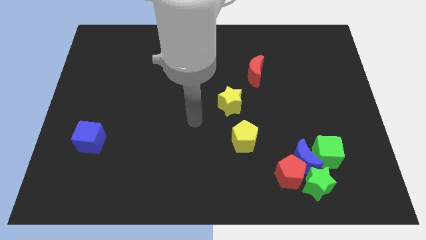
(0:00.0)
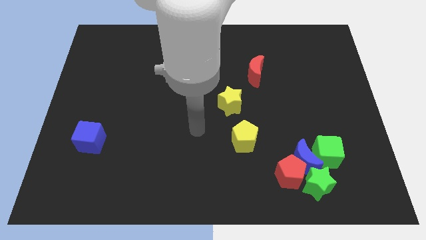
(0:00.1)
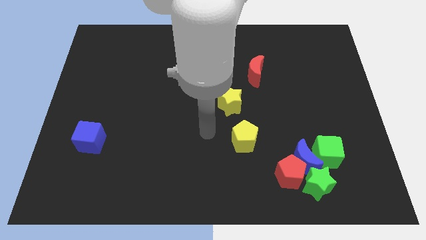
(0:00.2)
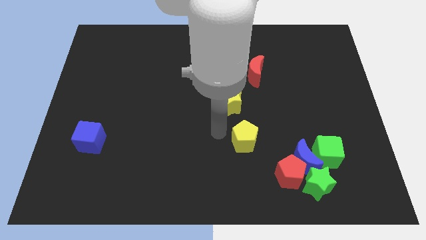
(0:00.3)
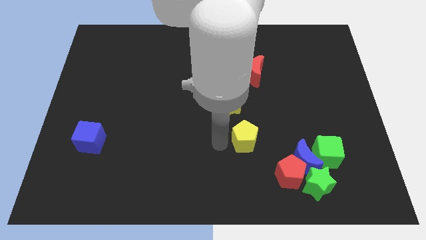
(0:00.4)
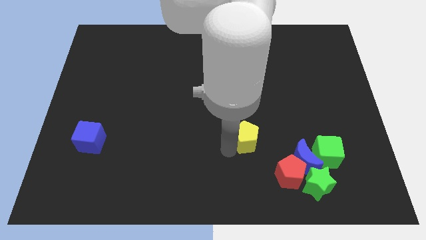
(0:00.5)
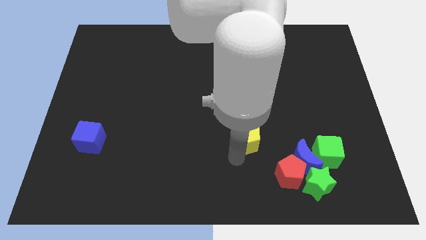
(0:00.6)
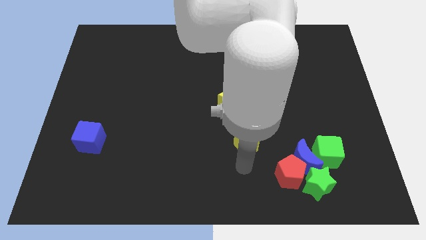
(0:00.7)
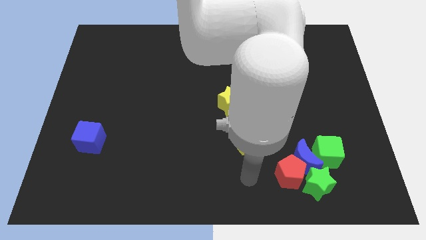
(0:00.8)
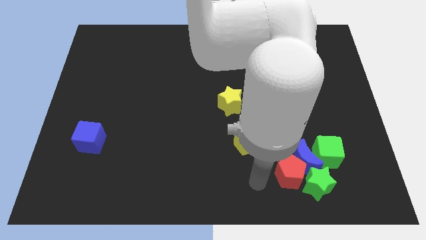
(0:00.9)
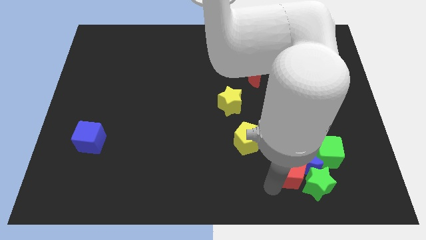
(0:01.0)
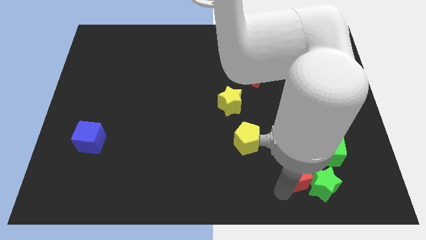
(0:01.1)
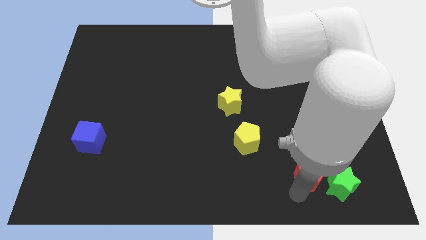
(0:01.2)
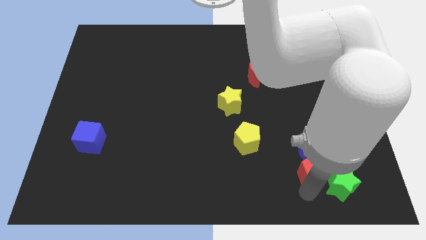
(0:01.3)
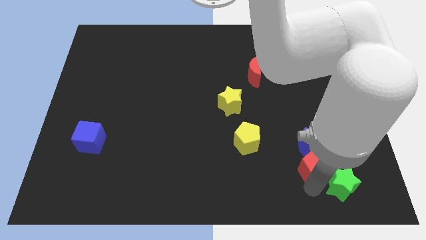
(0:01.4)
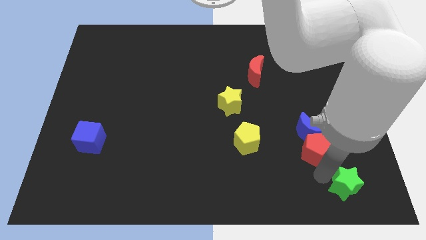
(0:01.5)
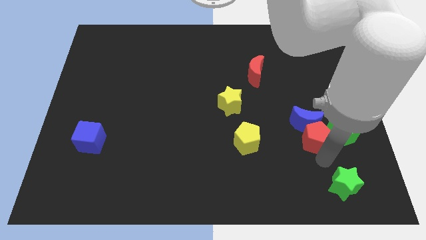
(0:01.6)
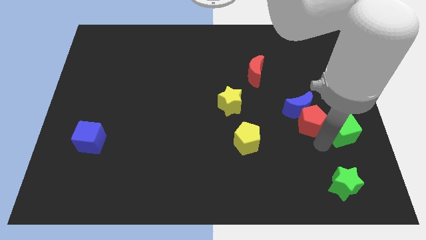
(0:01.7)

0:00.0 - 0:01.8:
pull the blue moon apart from the red pentagon, green cube, and green star

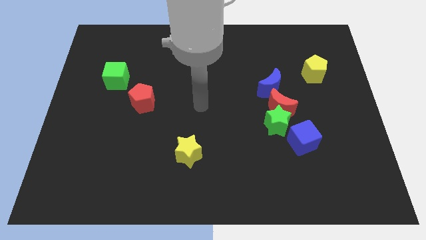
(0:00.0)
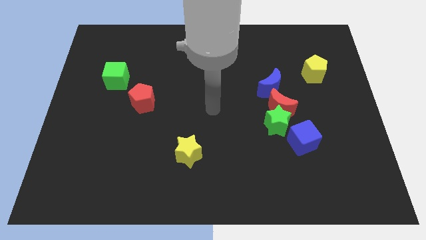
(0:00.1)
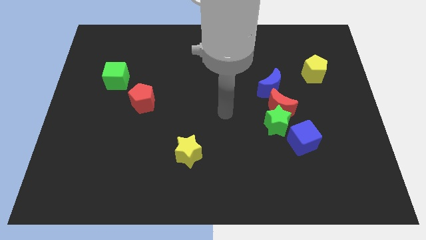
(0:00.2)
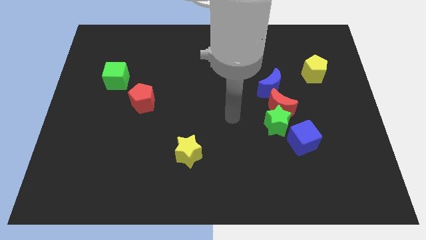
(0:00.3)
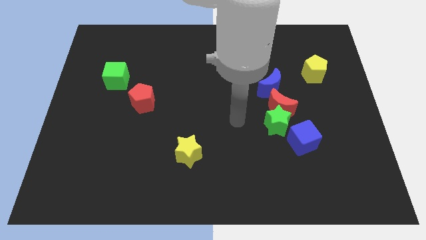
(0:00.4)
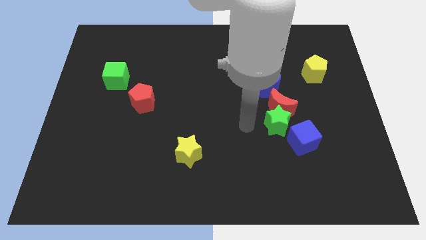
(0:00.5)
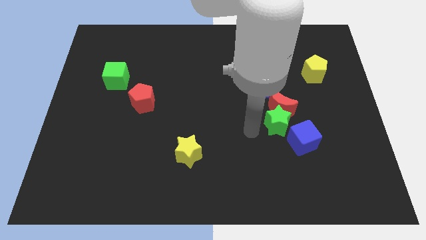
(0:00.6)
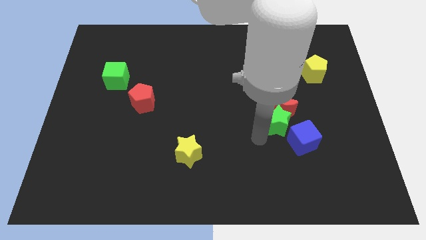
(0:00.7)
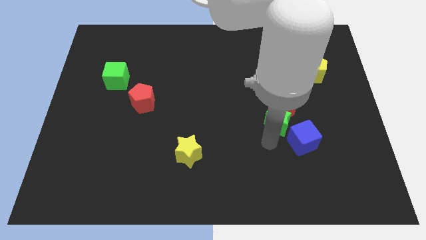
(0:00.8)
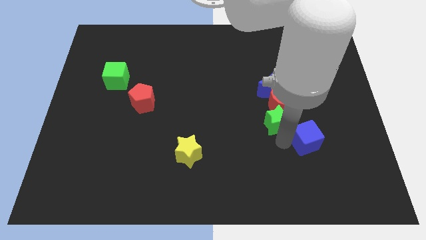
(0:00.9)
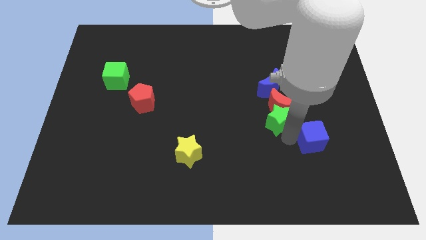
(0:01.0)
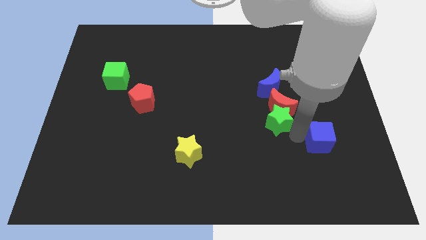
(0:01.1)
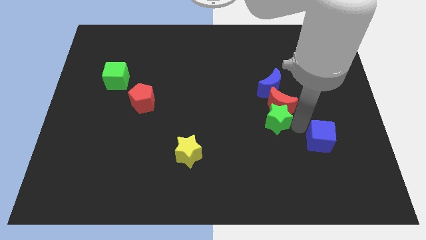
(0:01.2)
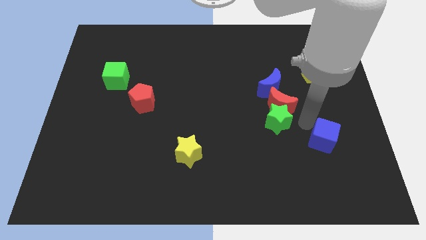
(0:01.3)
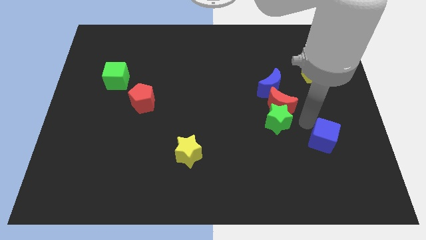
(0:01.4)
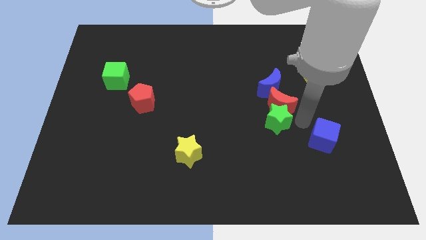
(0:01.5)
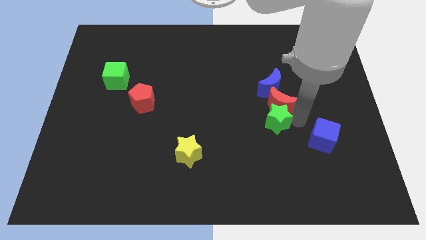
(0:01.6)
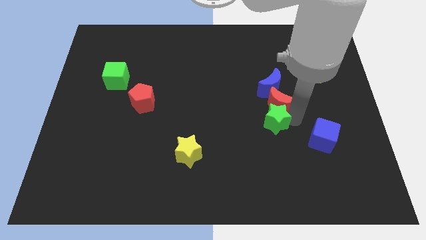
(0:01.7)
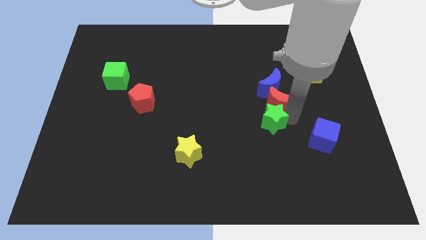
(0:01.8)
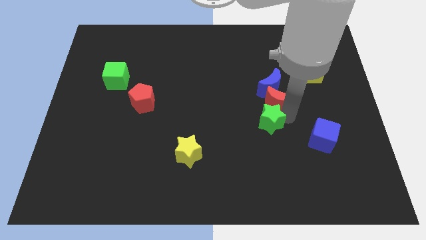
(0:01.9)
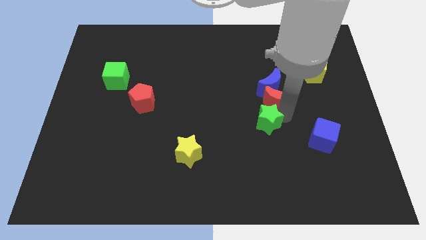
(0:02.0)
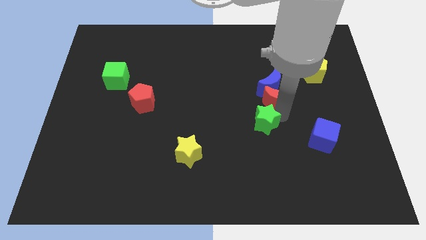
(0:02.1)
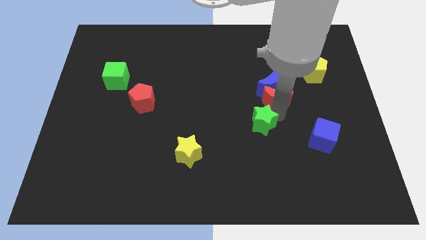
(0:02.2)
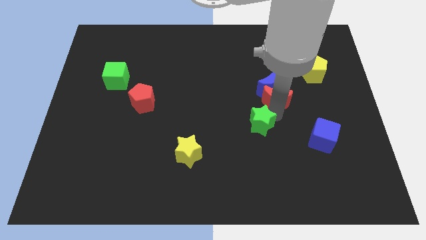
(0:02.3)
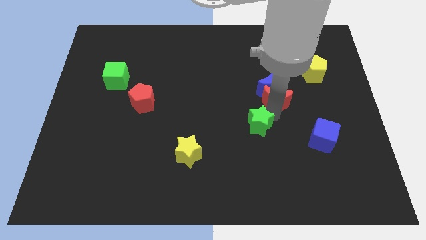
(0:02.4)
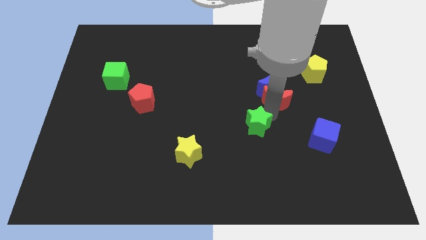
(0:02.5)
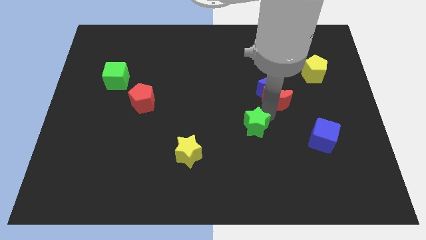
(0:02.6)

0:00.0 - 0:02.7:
pull the green star apart from the red moon and blue cube

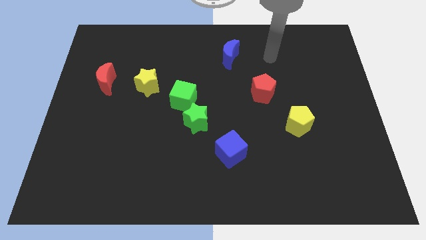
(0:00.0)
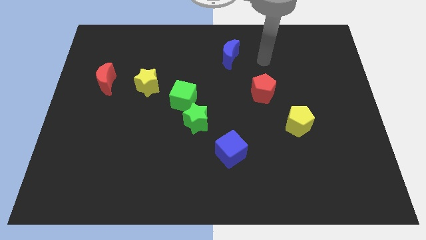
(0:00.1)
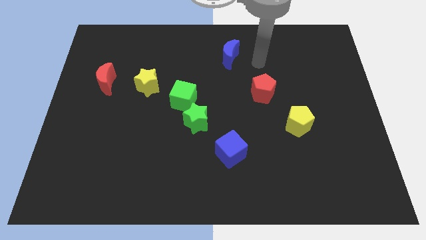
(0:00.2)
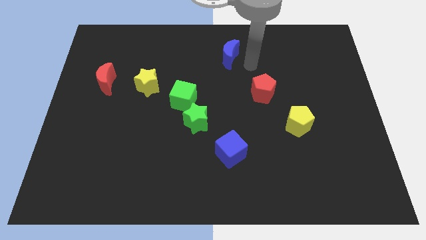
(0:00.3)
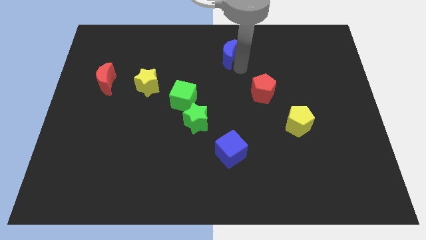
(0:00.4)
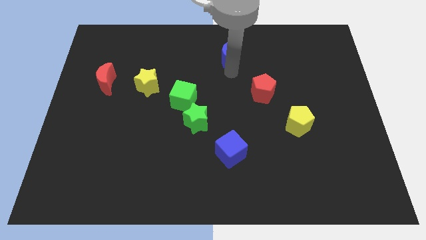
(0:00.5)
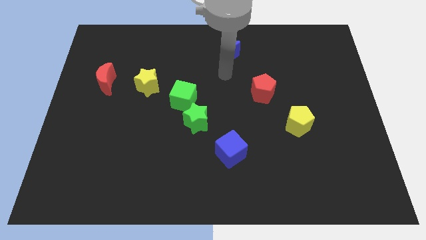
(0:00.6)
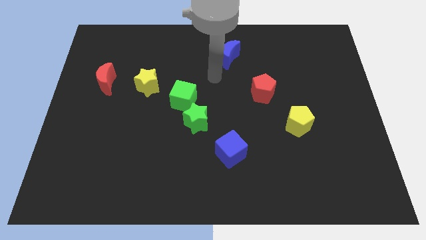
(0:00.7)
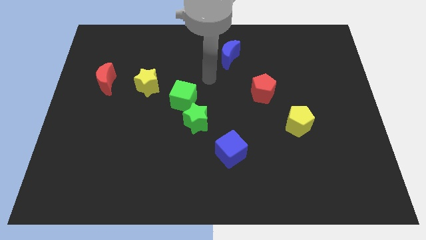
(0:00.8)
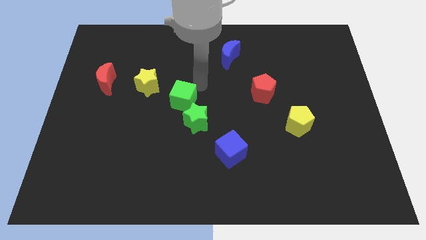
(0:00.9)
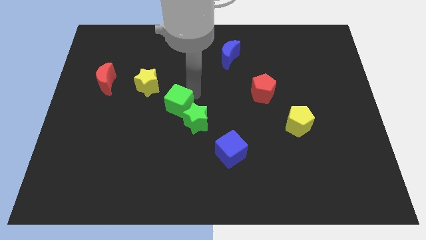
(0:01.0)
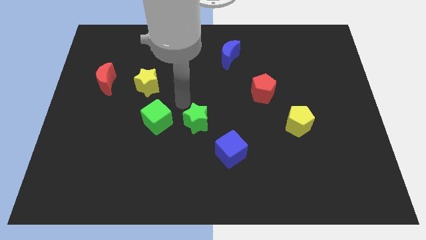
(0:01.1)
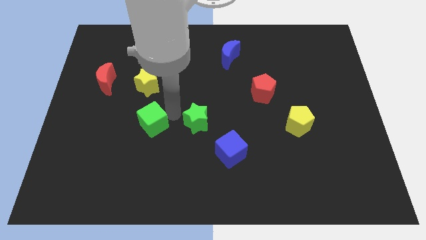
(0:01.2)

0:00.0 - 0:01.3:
separate the green star from the green cube

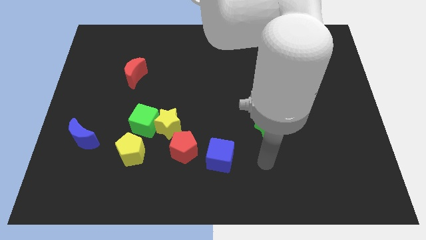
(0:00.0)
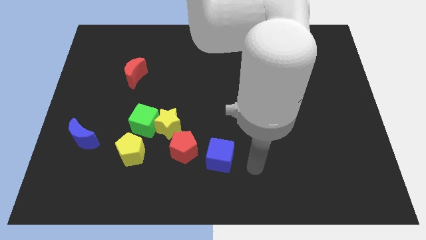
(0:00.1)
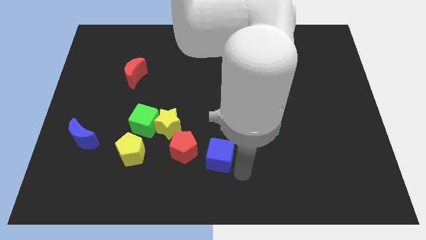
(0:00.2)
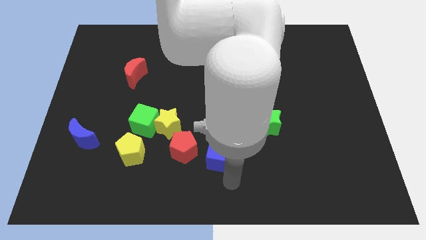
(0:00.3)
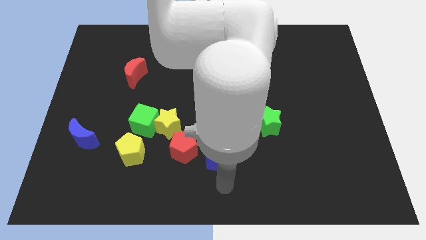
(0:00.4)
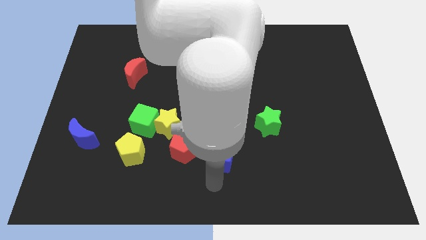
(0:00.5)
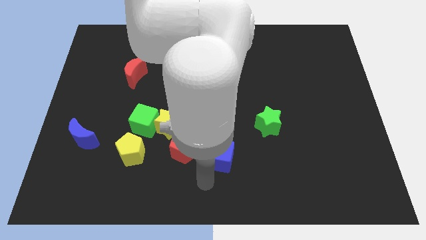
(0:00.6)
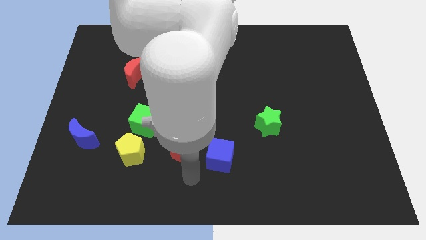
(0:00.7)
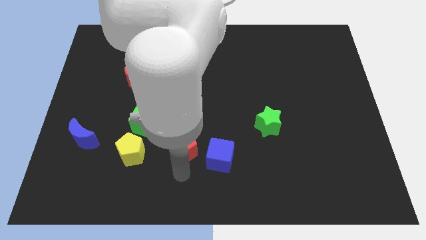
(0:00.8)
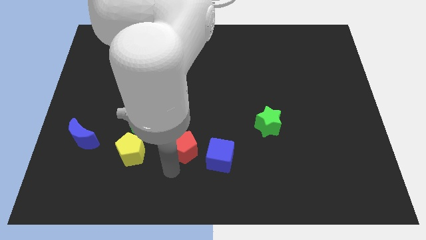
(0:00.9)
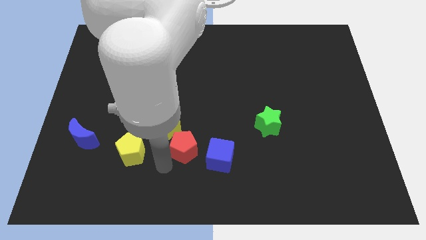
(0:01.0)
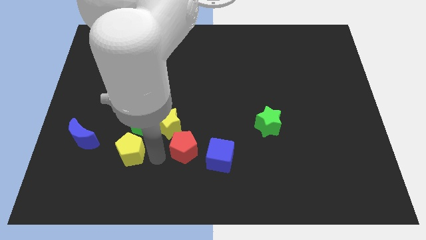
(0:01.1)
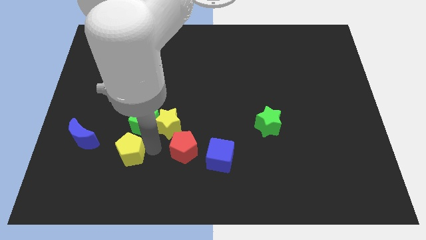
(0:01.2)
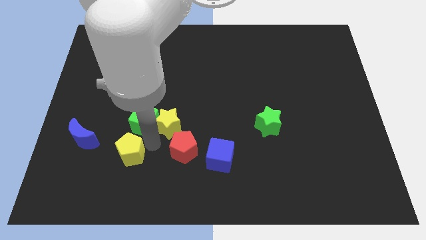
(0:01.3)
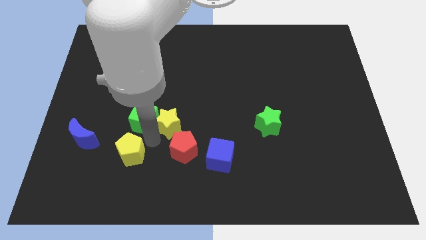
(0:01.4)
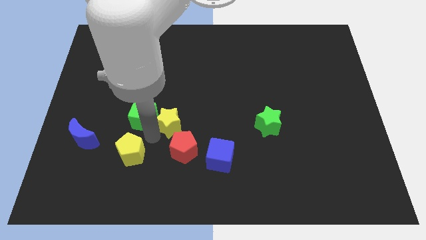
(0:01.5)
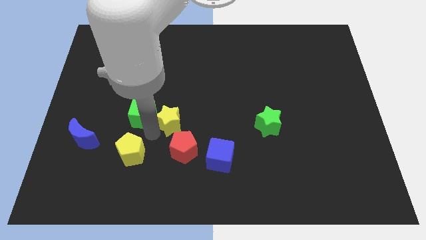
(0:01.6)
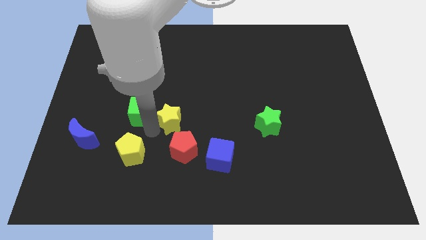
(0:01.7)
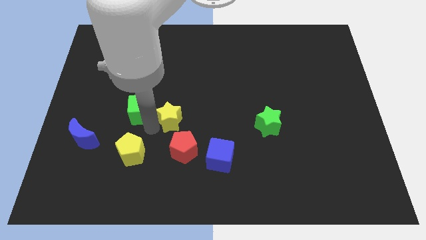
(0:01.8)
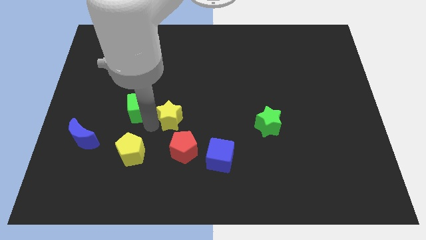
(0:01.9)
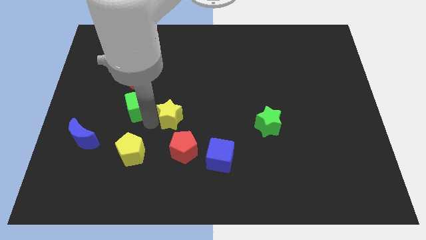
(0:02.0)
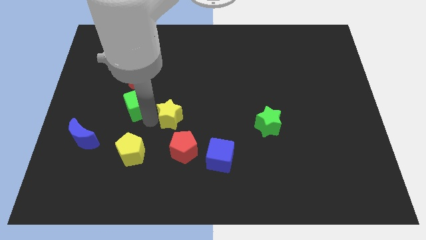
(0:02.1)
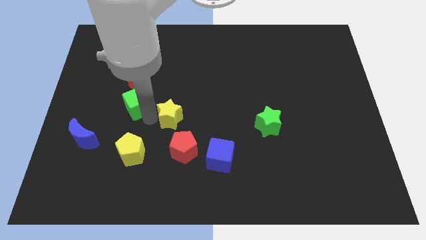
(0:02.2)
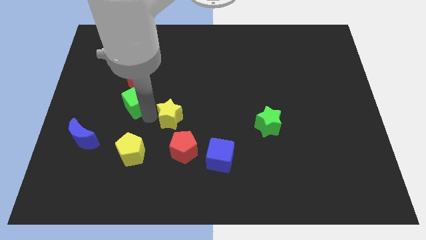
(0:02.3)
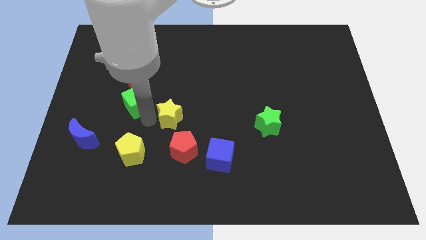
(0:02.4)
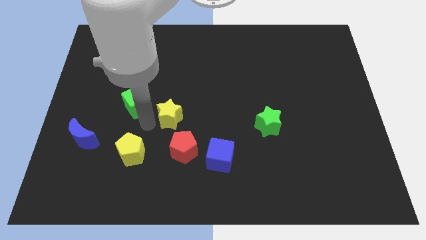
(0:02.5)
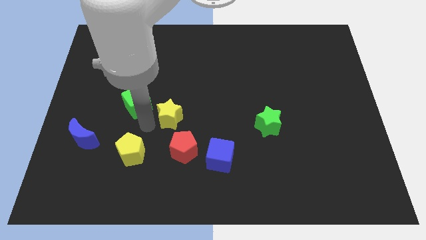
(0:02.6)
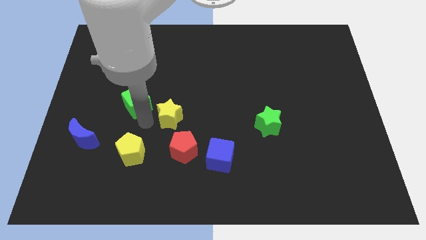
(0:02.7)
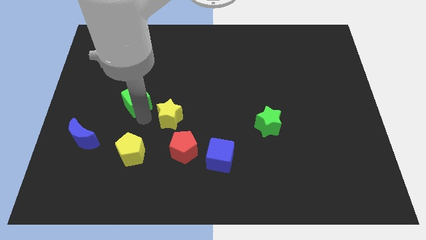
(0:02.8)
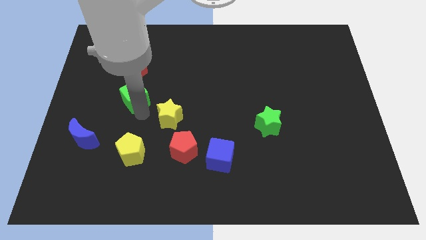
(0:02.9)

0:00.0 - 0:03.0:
move the green cube away from the yellow star and yellow pentagon

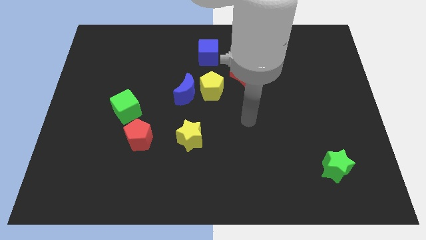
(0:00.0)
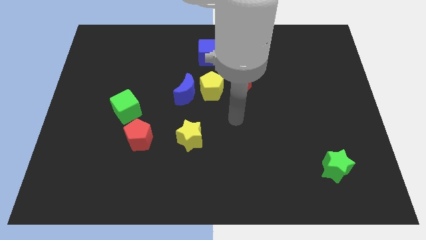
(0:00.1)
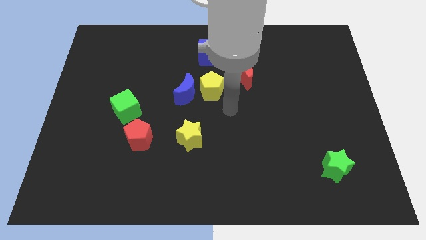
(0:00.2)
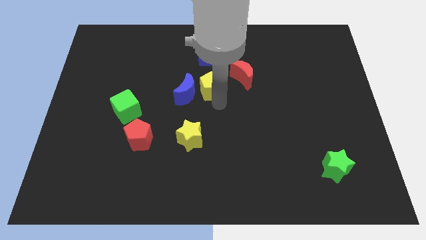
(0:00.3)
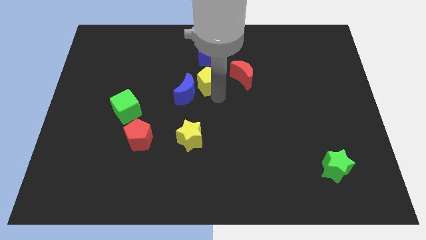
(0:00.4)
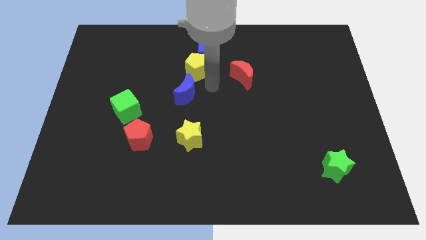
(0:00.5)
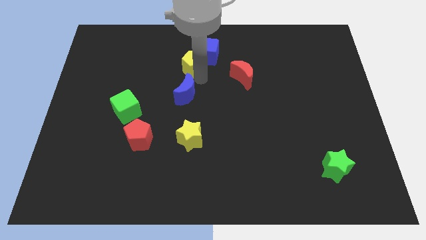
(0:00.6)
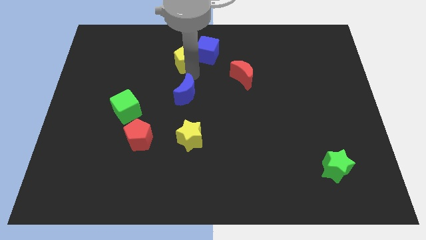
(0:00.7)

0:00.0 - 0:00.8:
pull the blue moon apart from the yellow pentagon
